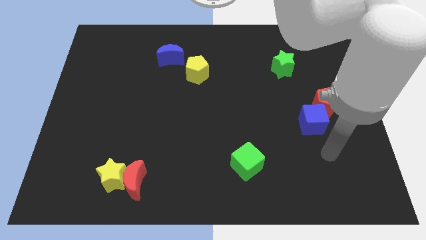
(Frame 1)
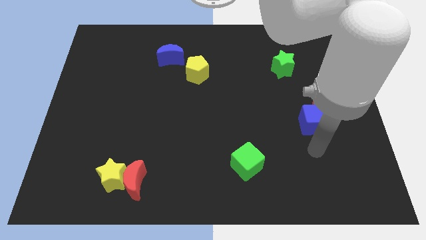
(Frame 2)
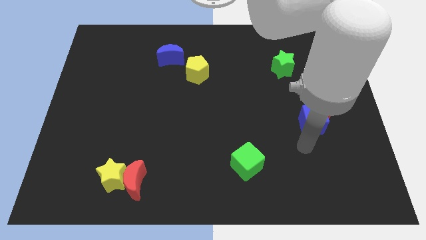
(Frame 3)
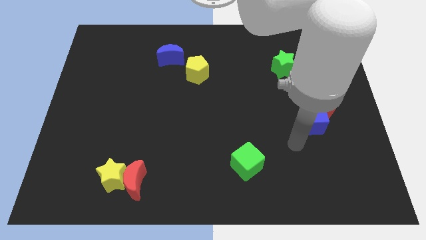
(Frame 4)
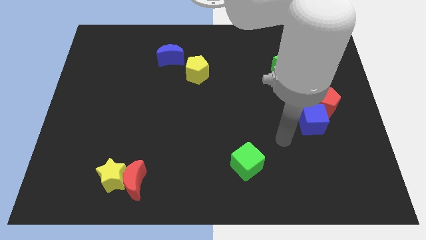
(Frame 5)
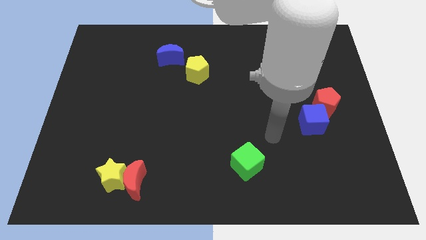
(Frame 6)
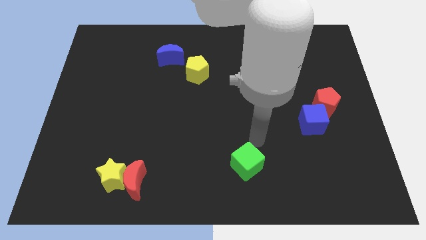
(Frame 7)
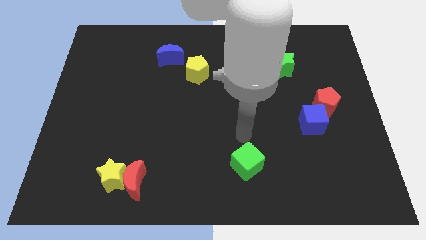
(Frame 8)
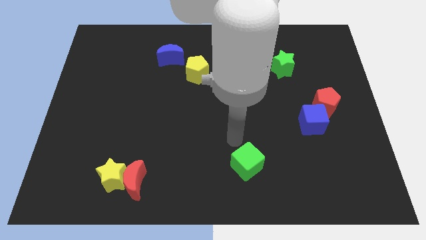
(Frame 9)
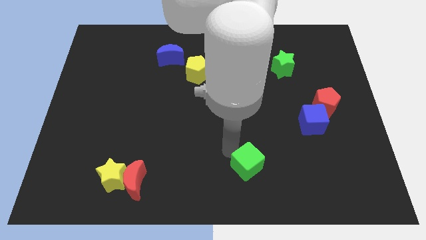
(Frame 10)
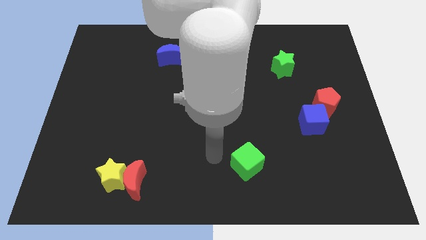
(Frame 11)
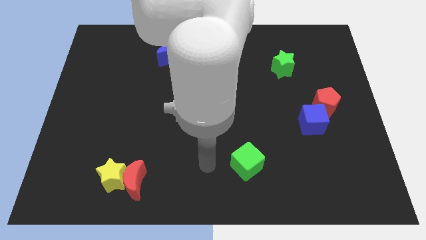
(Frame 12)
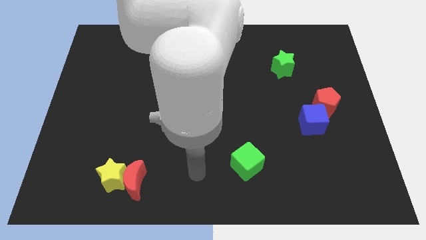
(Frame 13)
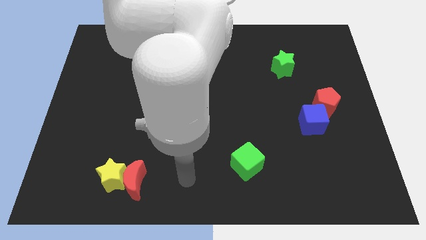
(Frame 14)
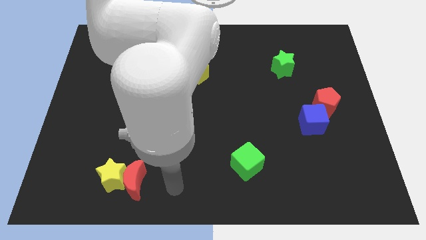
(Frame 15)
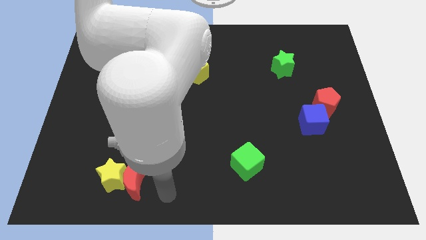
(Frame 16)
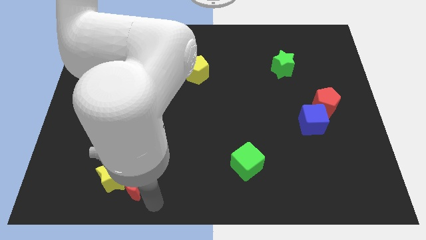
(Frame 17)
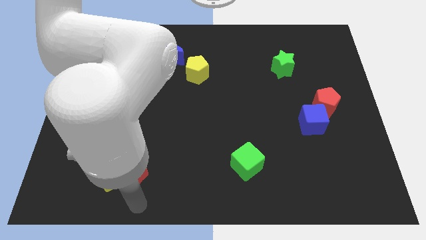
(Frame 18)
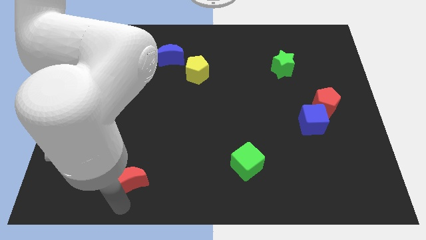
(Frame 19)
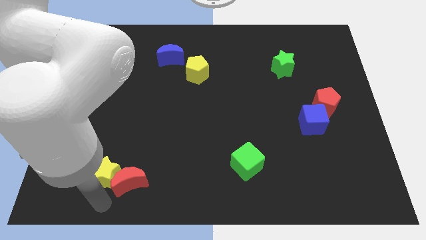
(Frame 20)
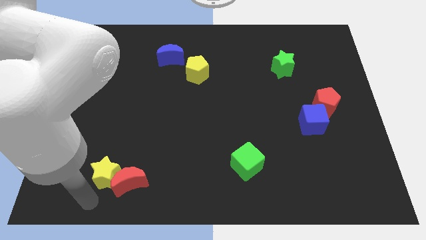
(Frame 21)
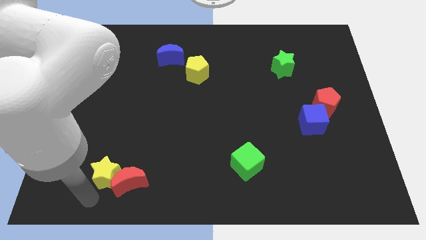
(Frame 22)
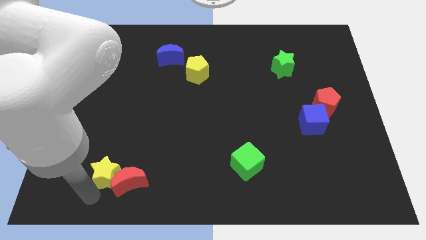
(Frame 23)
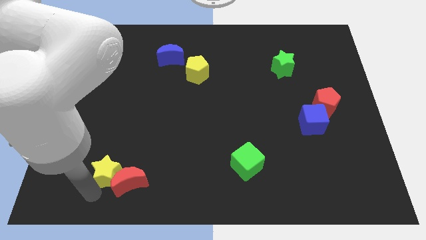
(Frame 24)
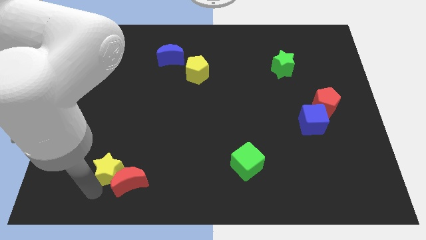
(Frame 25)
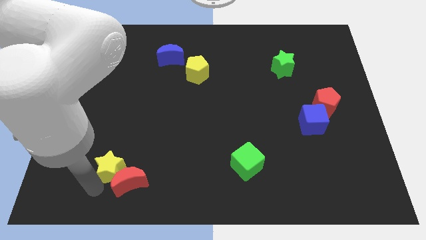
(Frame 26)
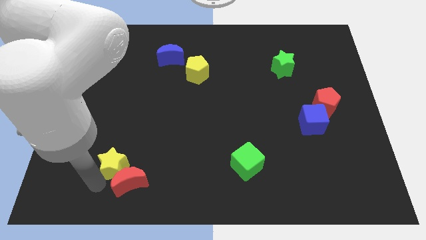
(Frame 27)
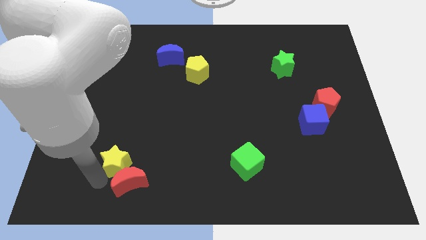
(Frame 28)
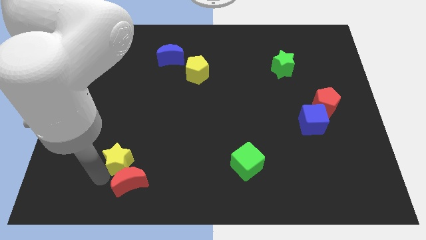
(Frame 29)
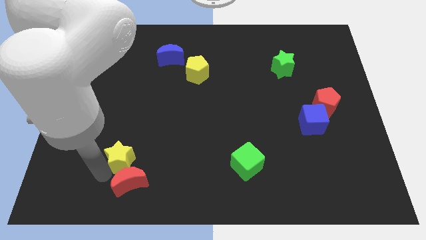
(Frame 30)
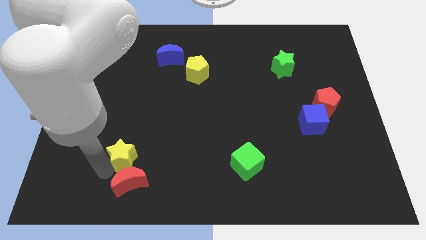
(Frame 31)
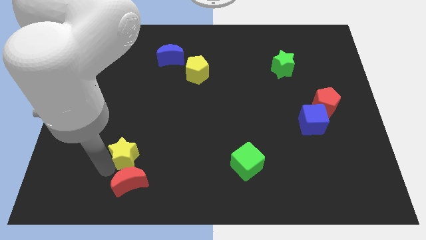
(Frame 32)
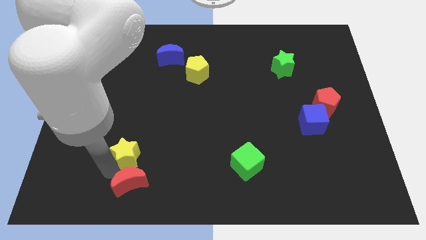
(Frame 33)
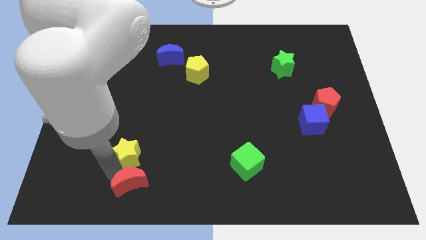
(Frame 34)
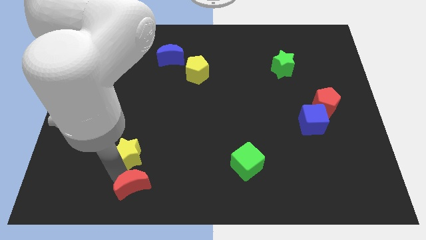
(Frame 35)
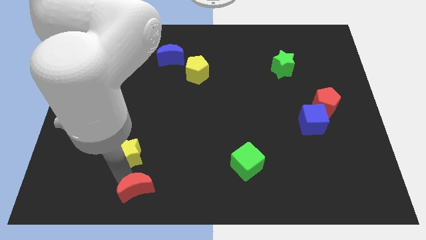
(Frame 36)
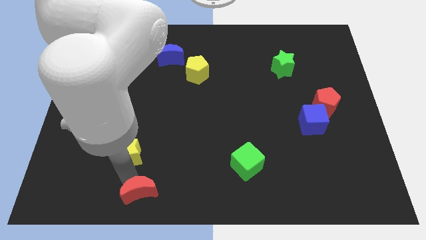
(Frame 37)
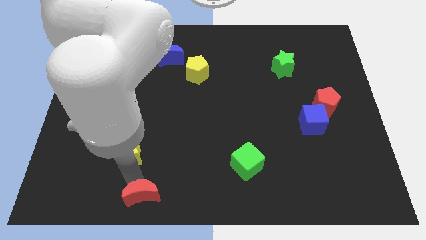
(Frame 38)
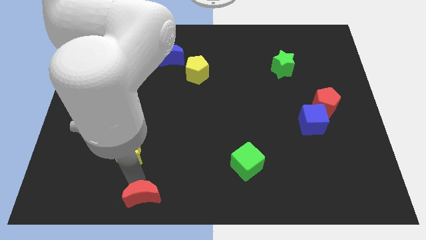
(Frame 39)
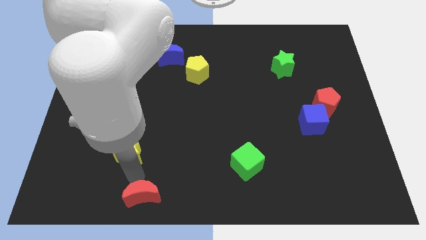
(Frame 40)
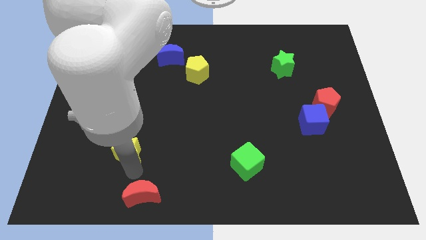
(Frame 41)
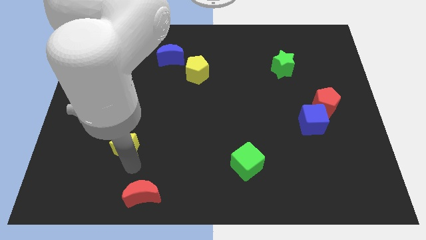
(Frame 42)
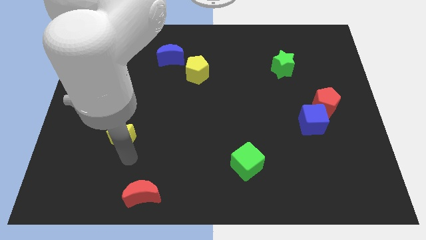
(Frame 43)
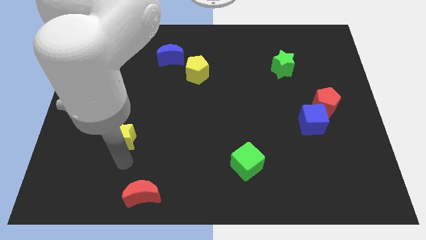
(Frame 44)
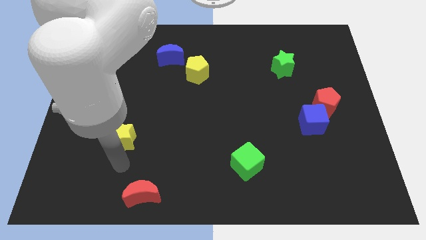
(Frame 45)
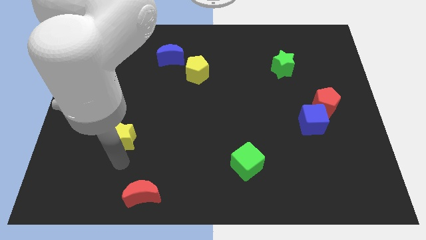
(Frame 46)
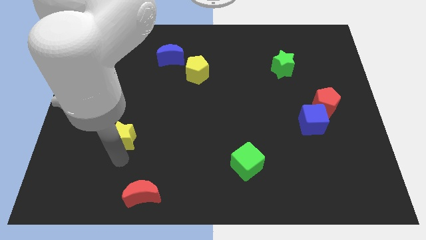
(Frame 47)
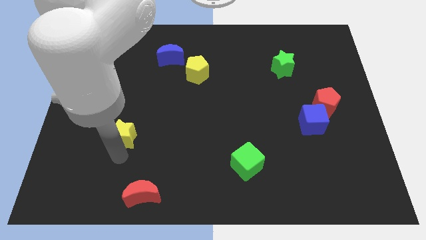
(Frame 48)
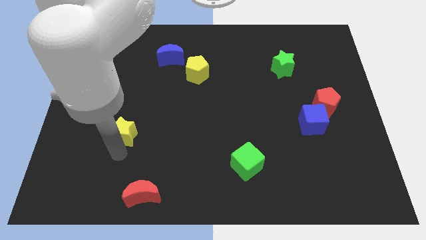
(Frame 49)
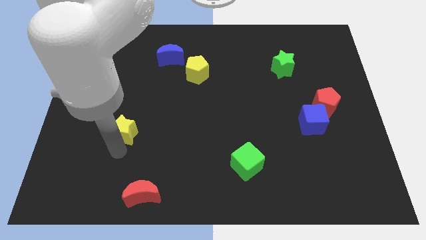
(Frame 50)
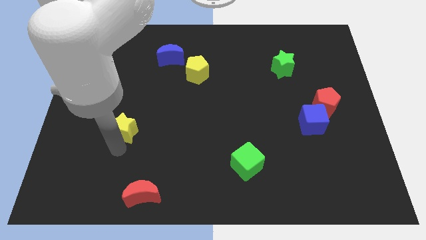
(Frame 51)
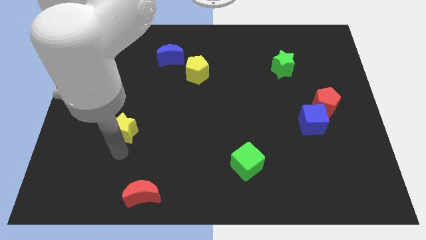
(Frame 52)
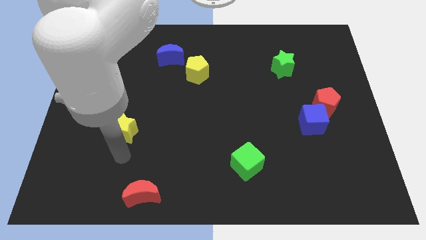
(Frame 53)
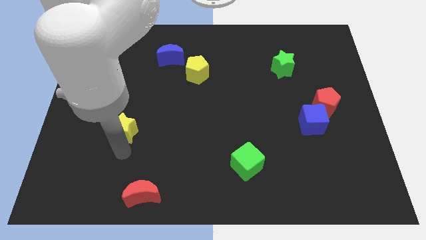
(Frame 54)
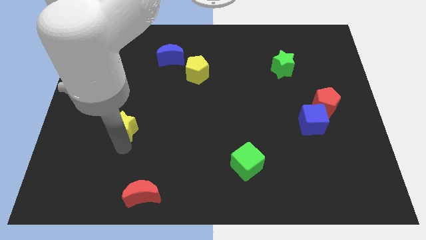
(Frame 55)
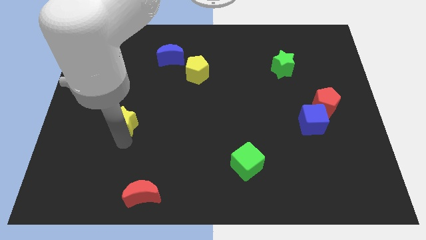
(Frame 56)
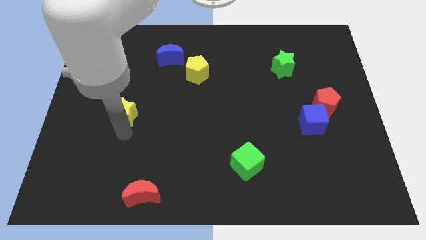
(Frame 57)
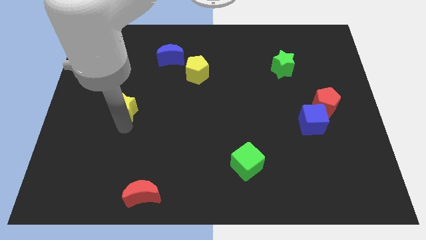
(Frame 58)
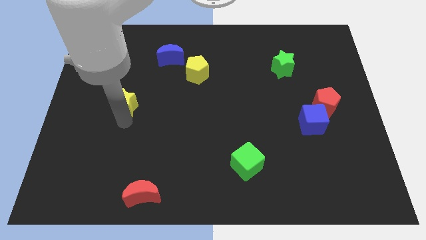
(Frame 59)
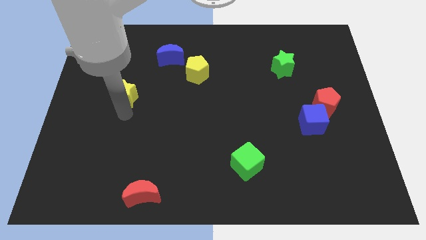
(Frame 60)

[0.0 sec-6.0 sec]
move the yellow star up

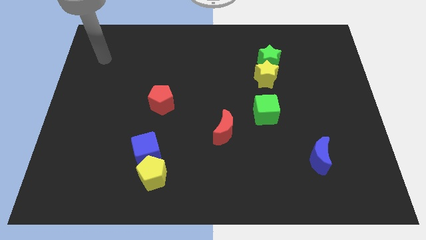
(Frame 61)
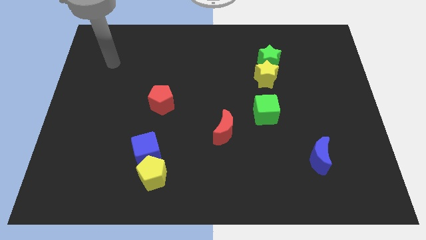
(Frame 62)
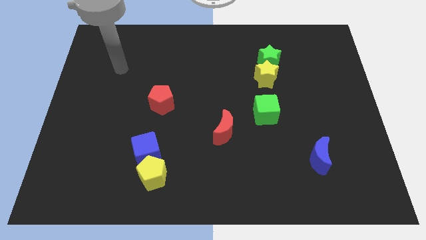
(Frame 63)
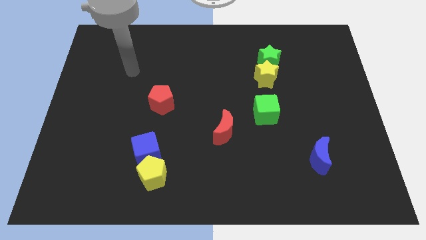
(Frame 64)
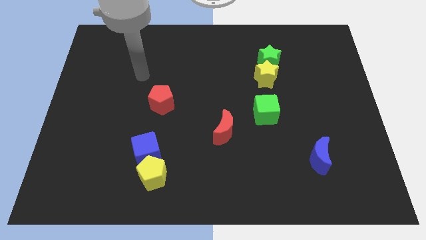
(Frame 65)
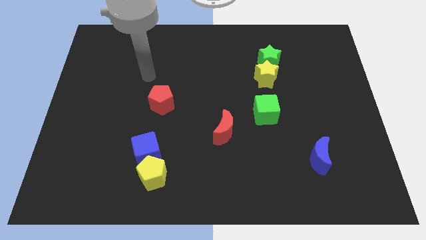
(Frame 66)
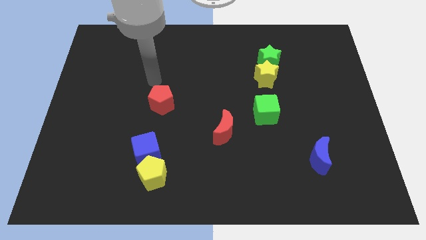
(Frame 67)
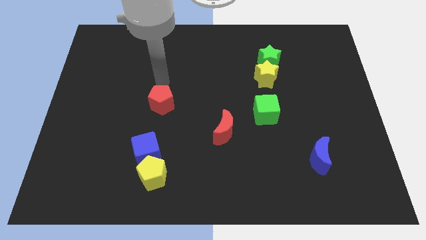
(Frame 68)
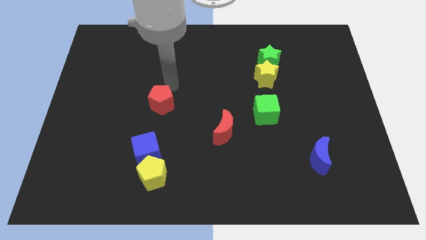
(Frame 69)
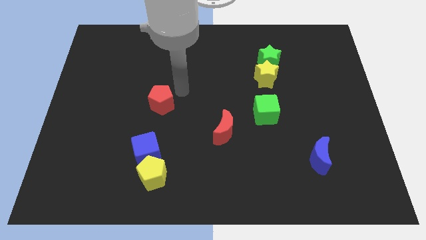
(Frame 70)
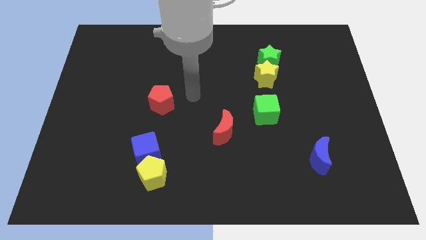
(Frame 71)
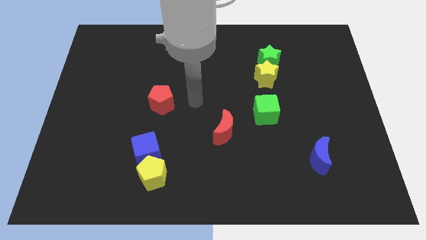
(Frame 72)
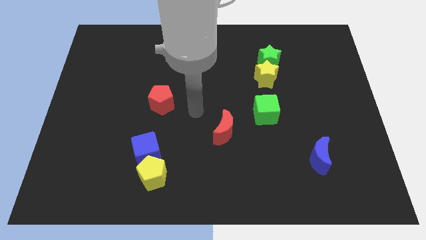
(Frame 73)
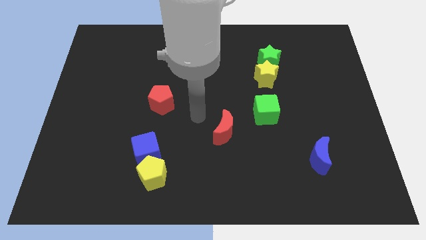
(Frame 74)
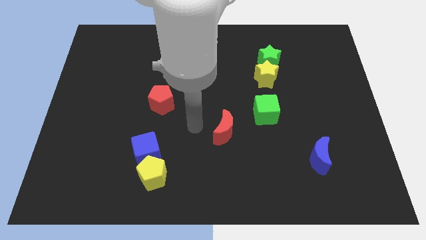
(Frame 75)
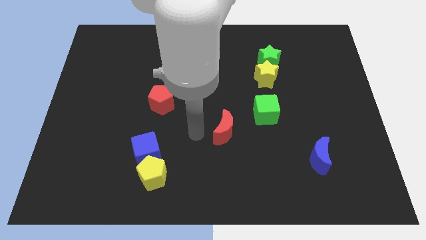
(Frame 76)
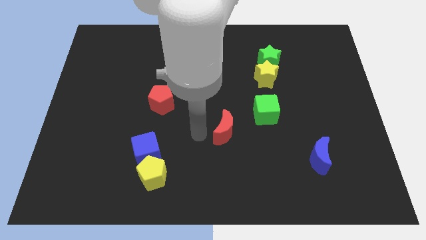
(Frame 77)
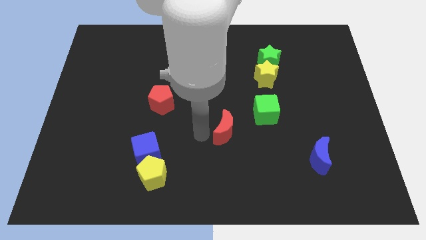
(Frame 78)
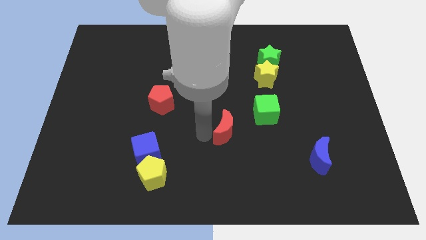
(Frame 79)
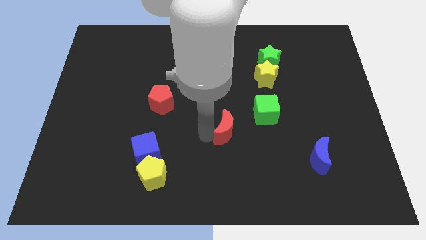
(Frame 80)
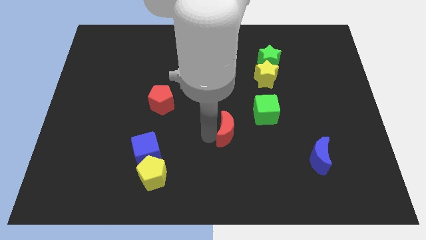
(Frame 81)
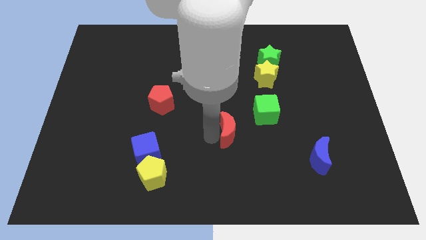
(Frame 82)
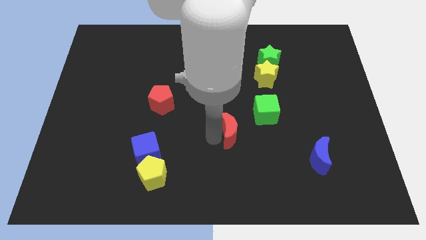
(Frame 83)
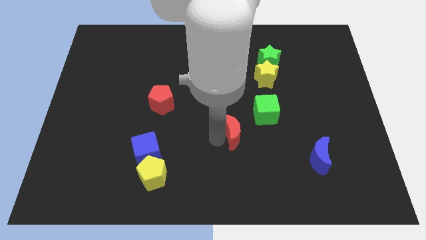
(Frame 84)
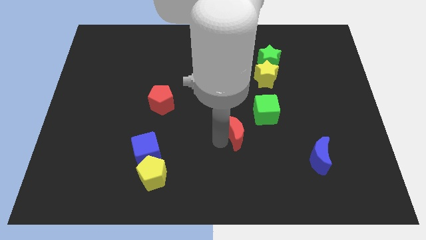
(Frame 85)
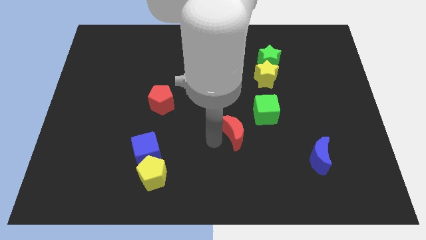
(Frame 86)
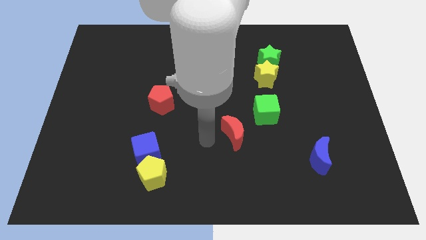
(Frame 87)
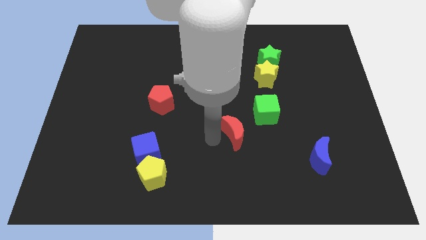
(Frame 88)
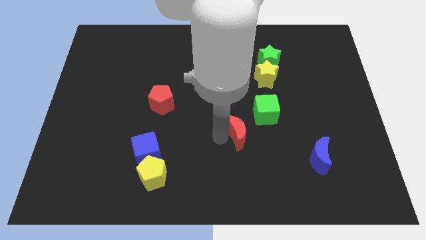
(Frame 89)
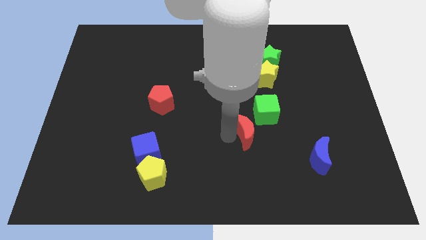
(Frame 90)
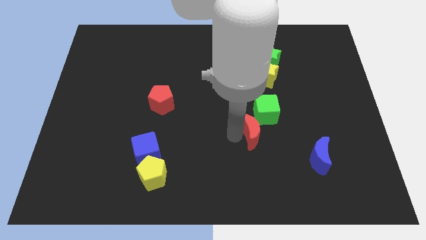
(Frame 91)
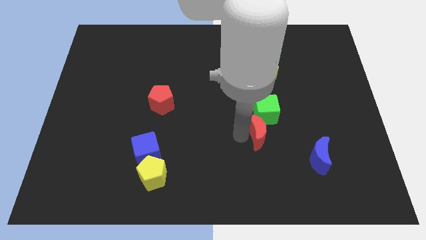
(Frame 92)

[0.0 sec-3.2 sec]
move the red moon slightly right
